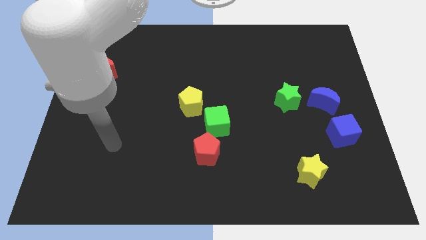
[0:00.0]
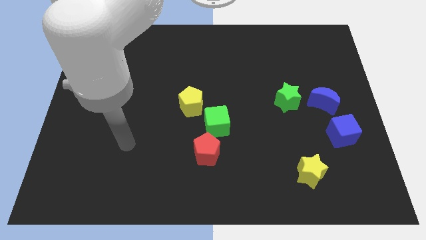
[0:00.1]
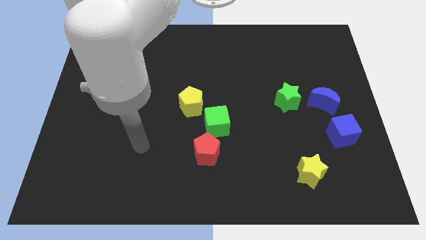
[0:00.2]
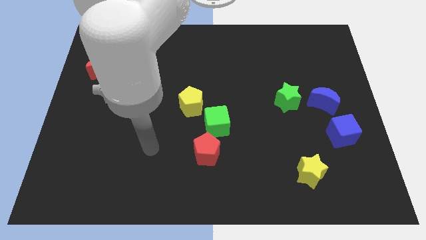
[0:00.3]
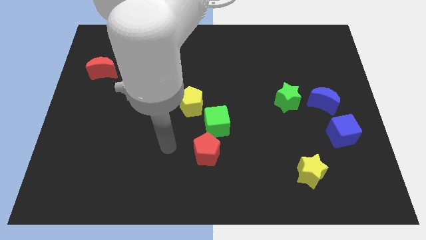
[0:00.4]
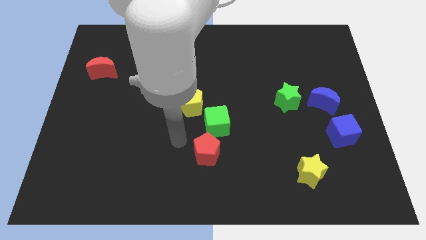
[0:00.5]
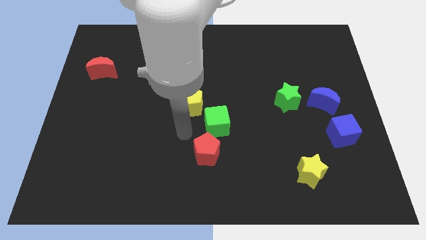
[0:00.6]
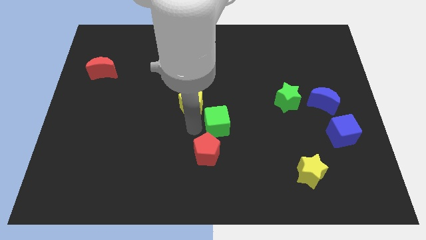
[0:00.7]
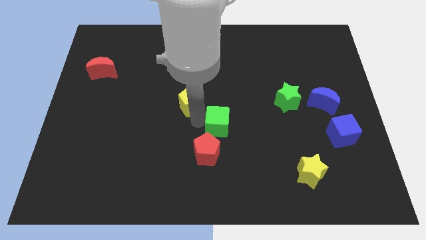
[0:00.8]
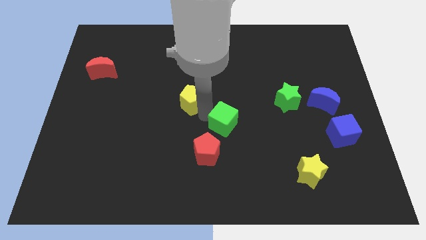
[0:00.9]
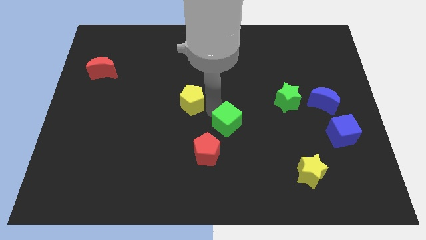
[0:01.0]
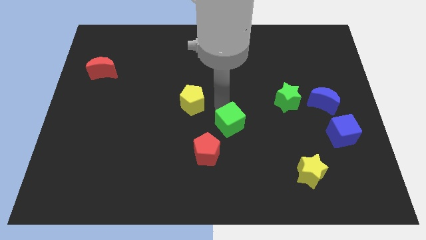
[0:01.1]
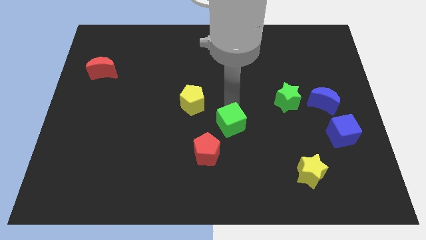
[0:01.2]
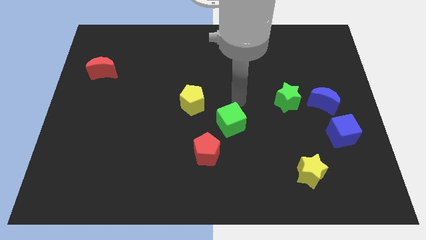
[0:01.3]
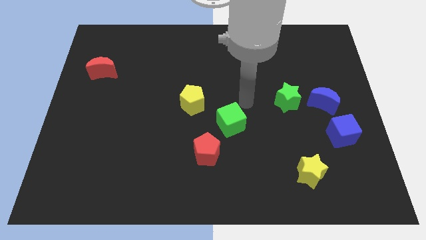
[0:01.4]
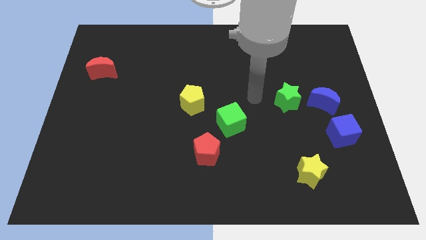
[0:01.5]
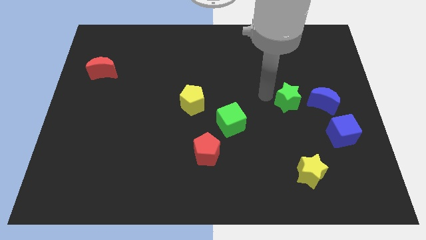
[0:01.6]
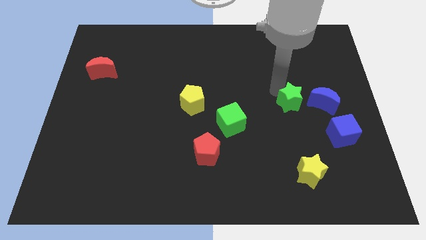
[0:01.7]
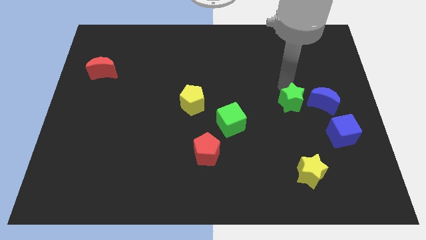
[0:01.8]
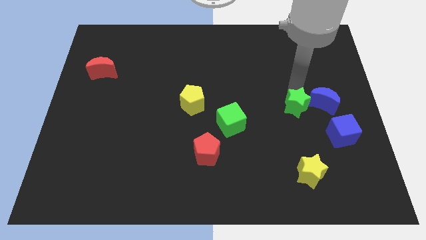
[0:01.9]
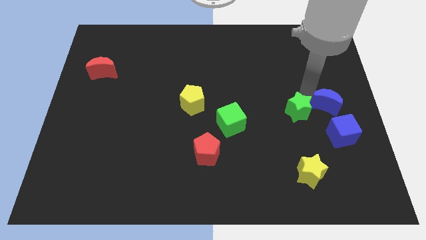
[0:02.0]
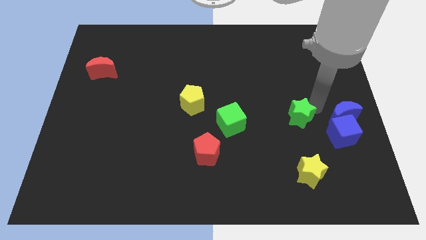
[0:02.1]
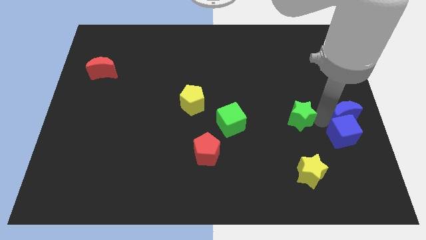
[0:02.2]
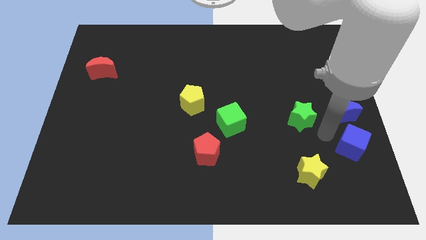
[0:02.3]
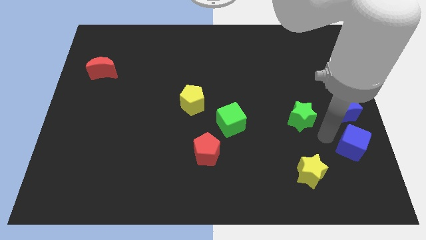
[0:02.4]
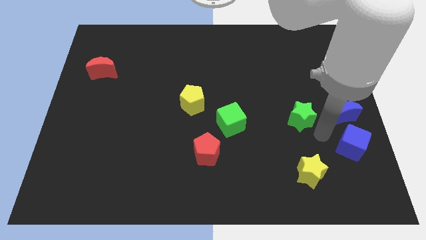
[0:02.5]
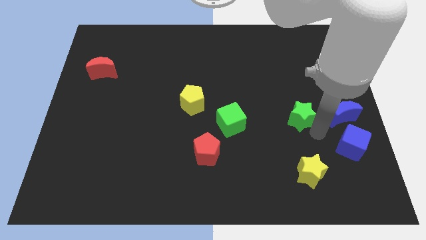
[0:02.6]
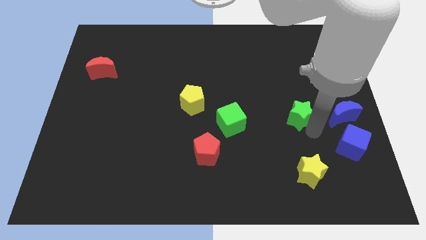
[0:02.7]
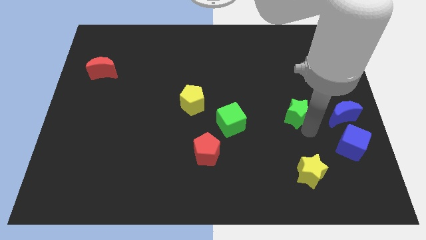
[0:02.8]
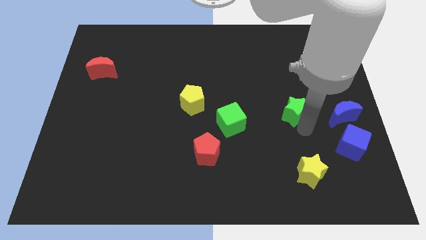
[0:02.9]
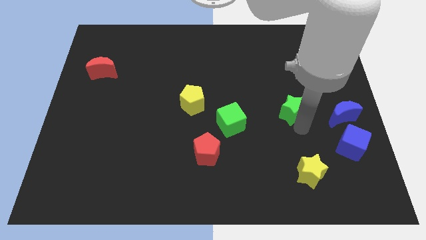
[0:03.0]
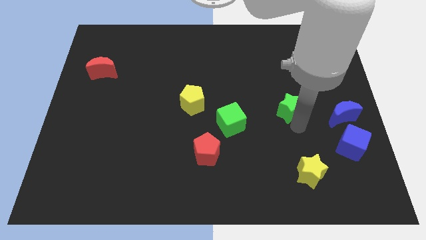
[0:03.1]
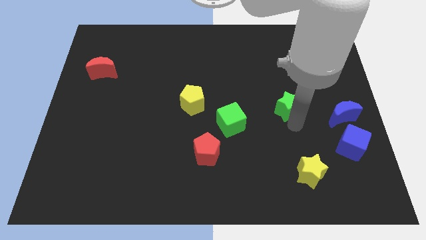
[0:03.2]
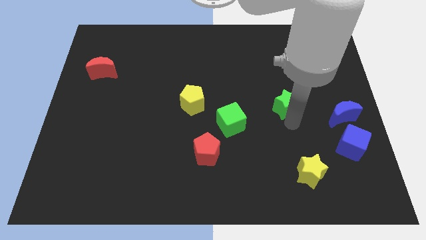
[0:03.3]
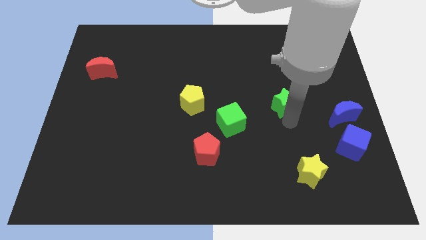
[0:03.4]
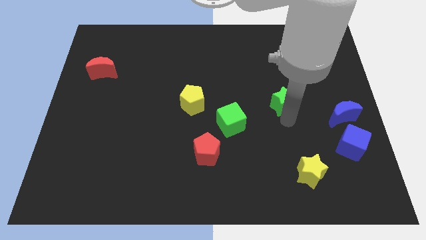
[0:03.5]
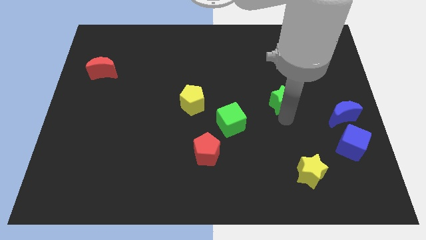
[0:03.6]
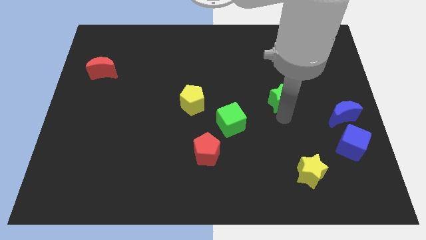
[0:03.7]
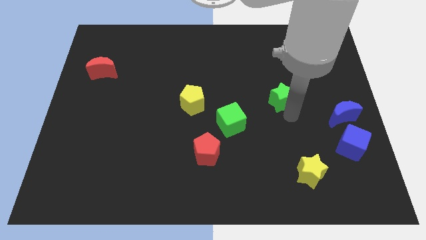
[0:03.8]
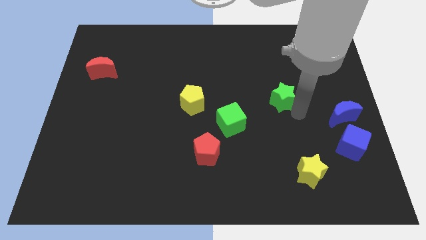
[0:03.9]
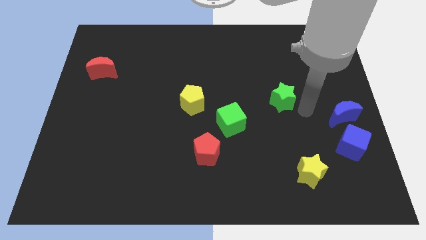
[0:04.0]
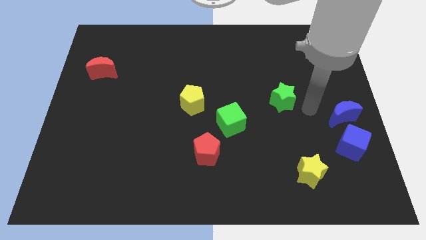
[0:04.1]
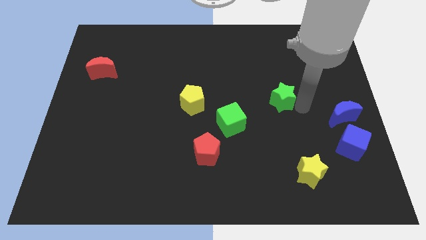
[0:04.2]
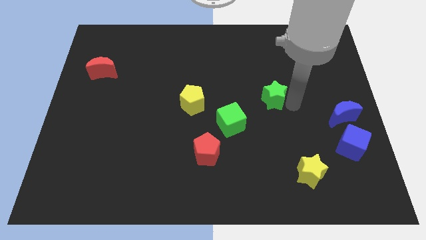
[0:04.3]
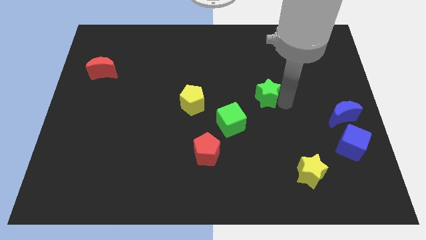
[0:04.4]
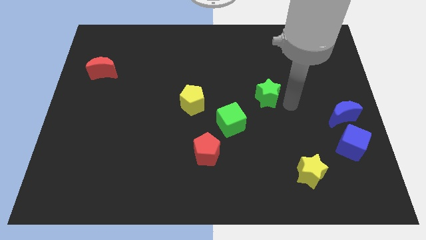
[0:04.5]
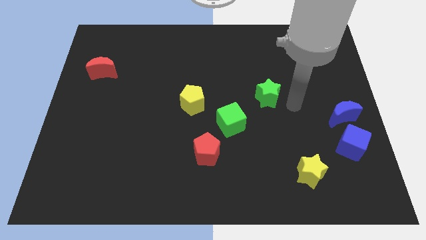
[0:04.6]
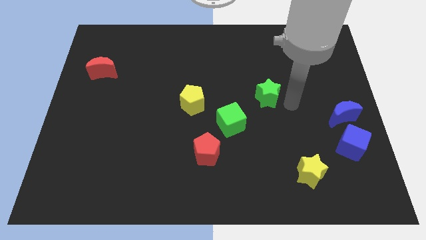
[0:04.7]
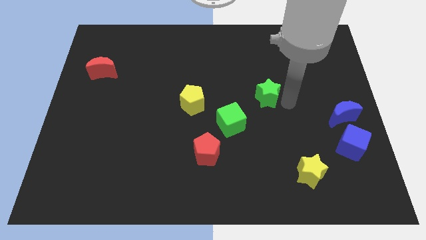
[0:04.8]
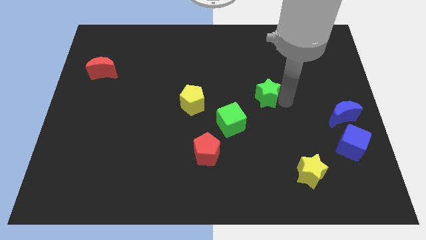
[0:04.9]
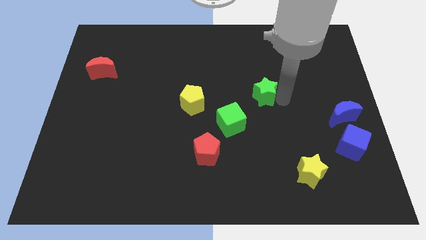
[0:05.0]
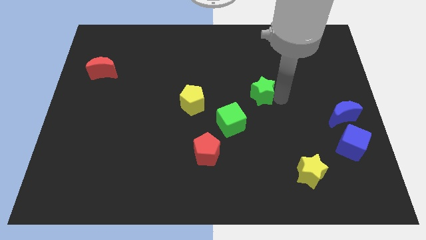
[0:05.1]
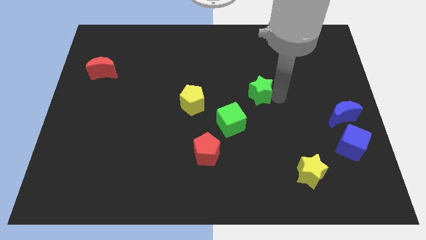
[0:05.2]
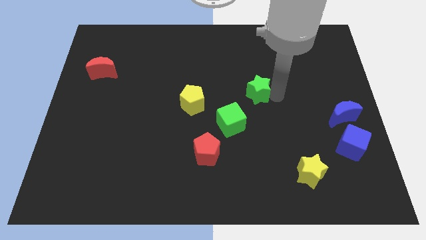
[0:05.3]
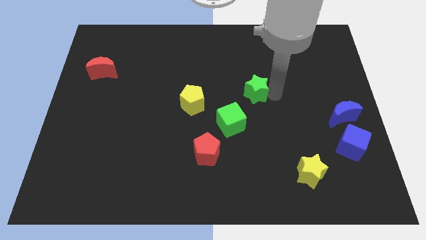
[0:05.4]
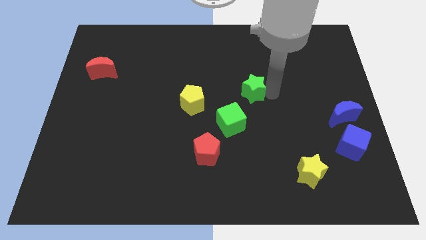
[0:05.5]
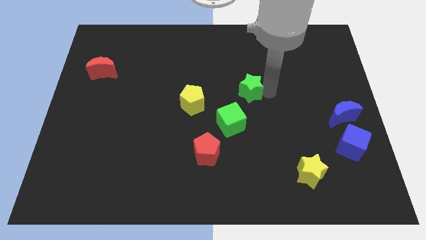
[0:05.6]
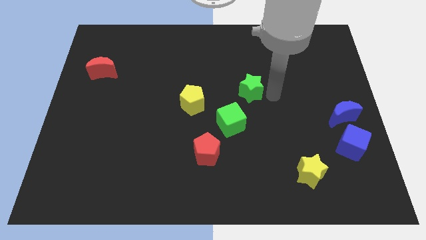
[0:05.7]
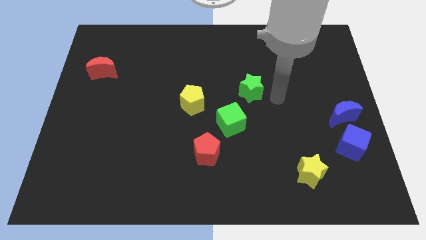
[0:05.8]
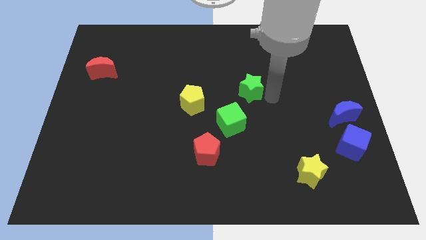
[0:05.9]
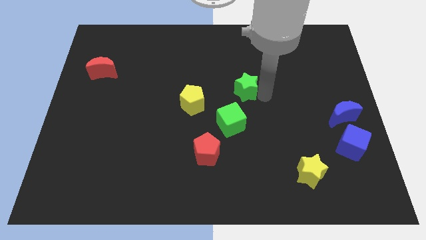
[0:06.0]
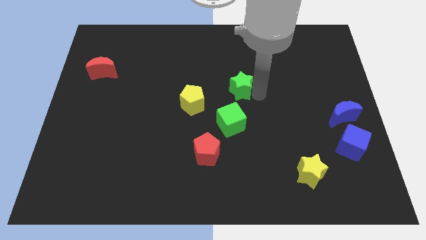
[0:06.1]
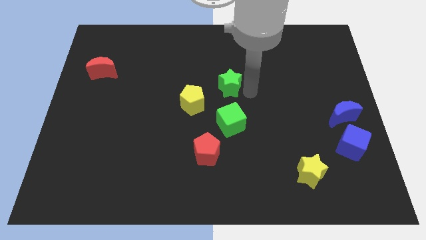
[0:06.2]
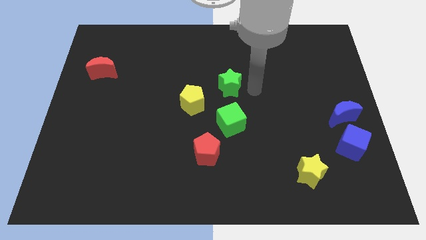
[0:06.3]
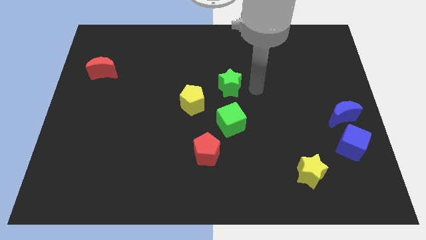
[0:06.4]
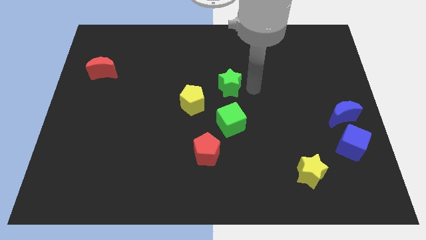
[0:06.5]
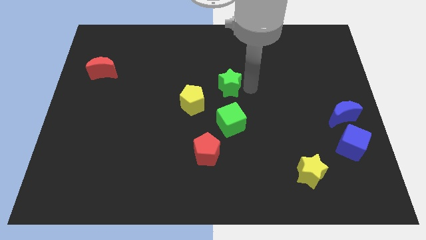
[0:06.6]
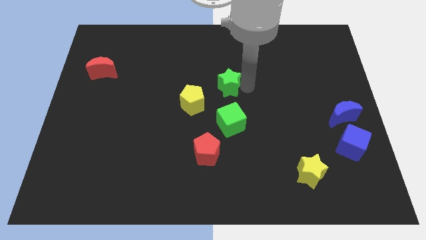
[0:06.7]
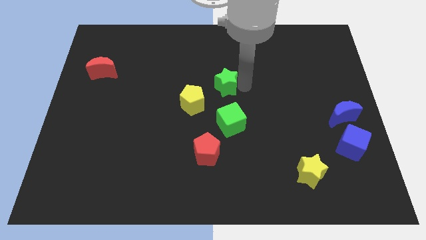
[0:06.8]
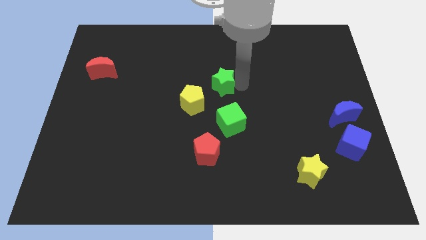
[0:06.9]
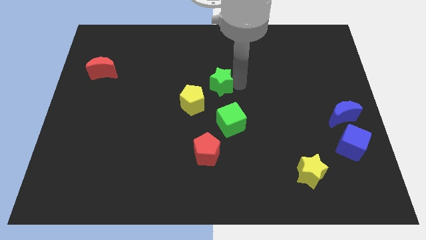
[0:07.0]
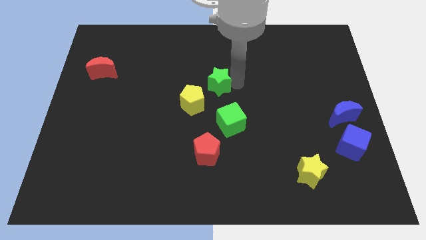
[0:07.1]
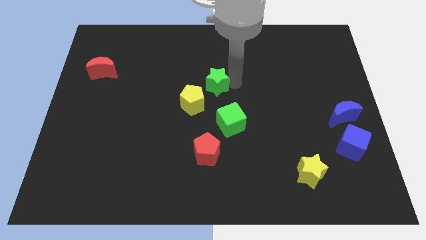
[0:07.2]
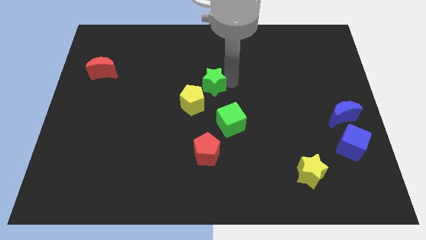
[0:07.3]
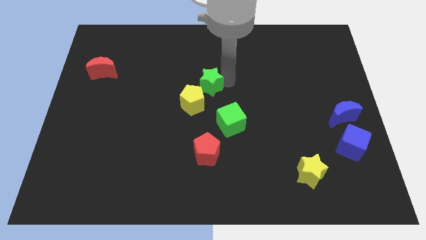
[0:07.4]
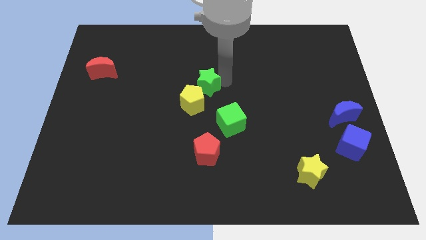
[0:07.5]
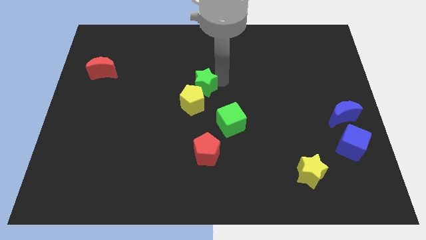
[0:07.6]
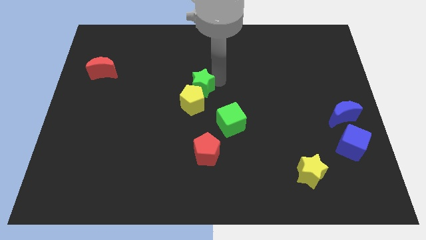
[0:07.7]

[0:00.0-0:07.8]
slide the green star to the left

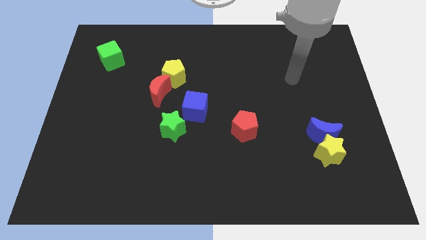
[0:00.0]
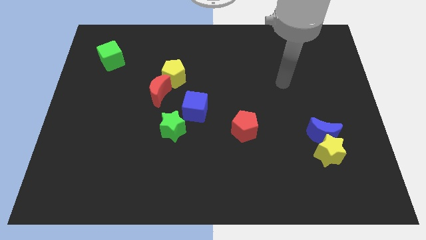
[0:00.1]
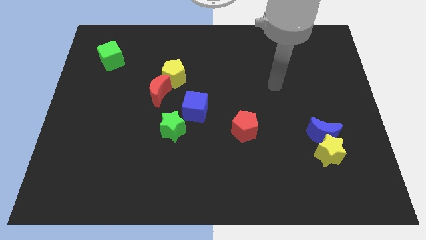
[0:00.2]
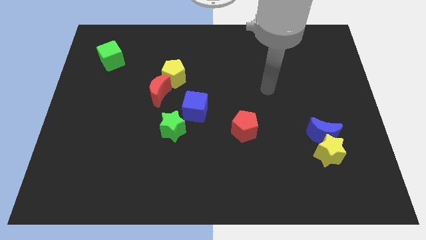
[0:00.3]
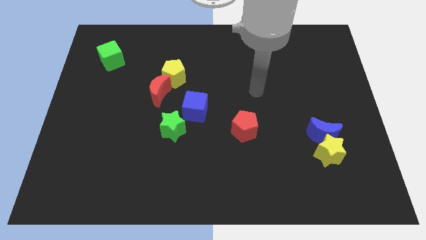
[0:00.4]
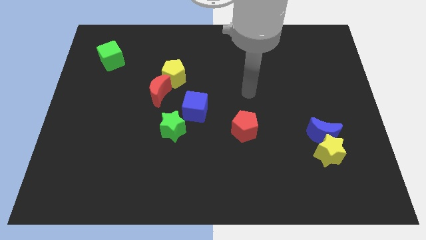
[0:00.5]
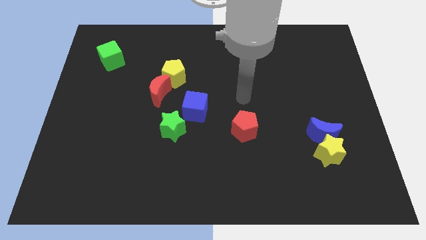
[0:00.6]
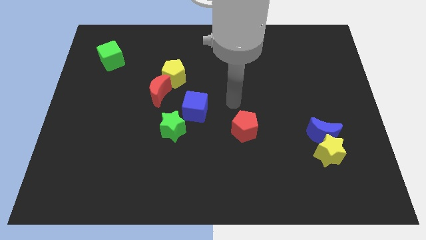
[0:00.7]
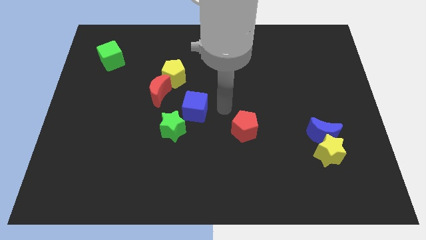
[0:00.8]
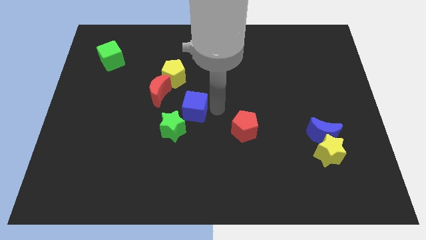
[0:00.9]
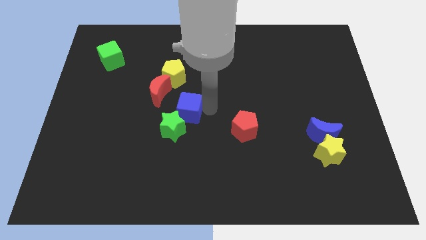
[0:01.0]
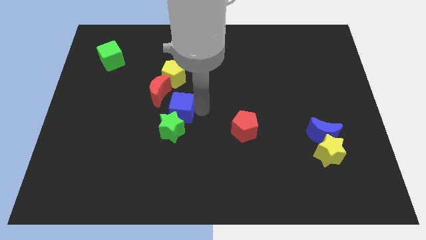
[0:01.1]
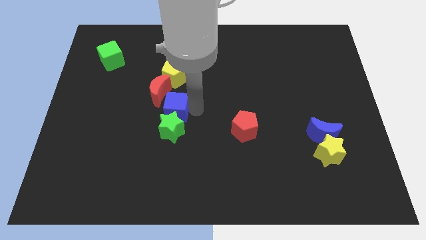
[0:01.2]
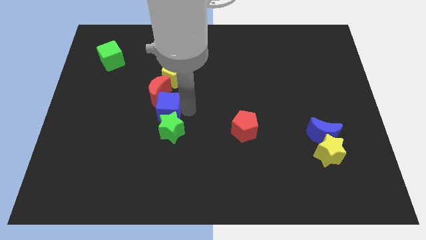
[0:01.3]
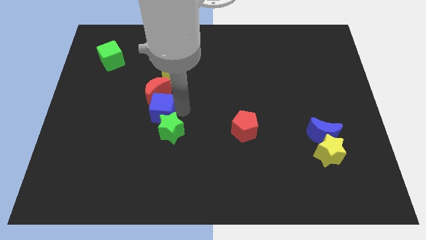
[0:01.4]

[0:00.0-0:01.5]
slightly move the blue cube left
